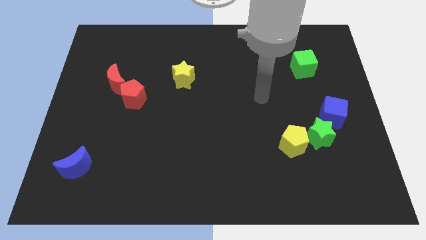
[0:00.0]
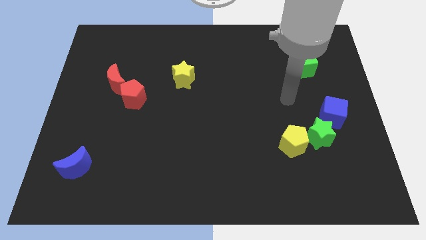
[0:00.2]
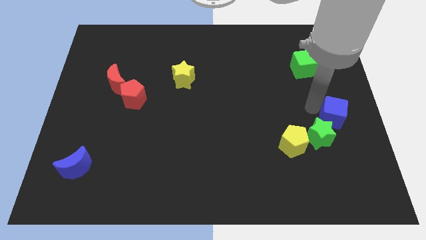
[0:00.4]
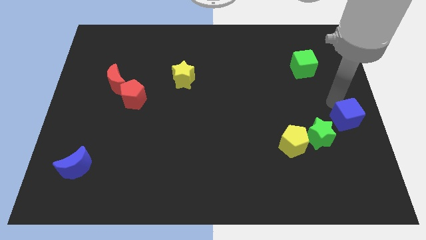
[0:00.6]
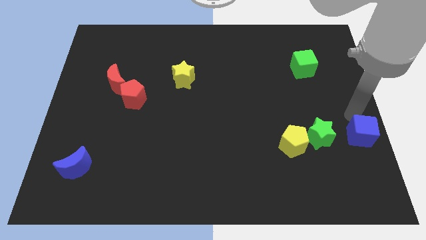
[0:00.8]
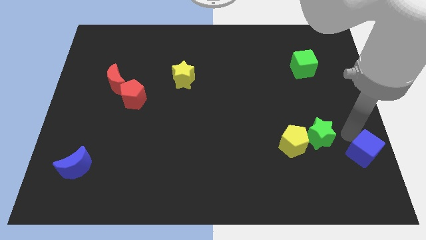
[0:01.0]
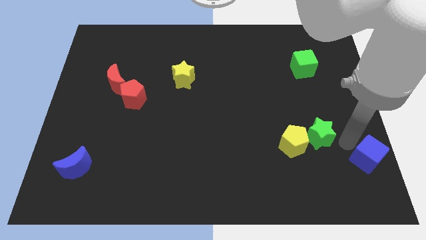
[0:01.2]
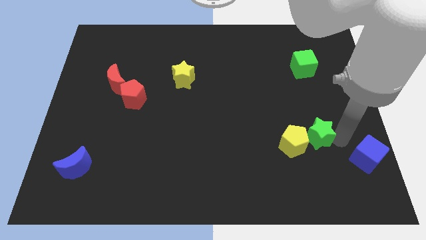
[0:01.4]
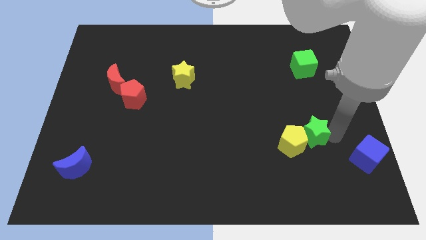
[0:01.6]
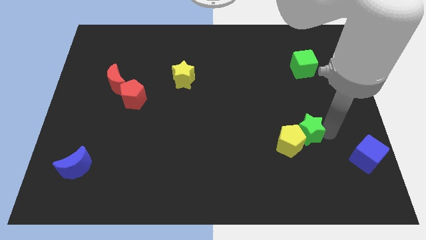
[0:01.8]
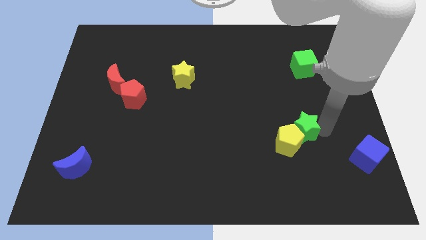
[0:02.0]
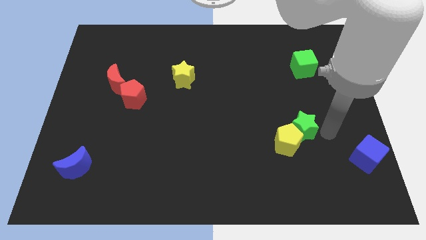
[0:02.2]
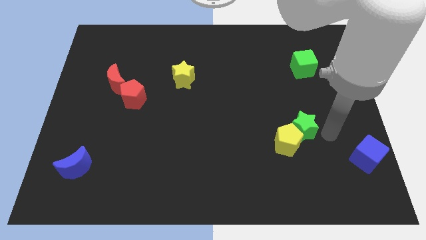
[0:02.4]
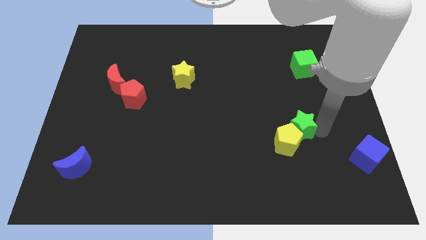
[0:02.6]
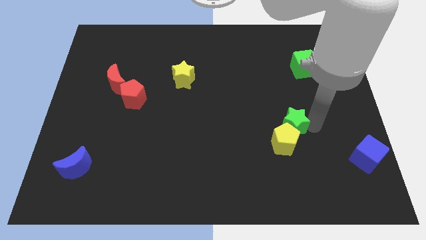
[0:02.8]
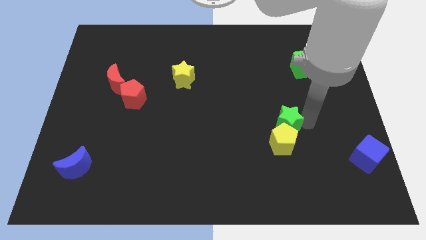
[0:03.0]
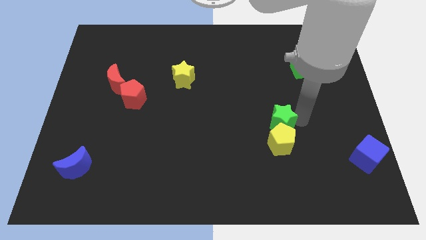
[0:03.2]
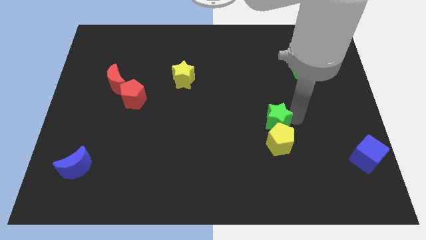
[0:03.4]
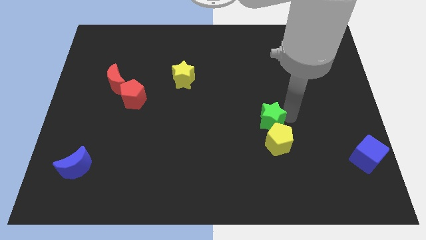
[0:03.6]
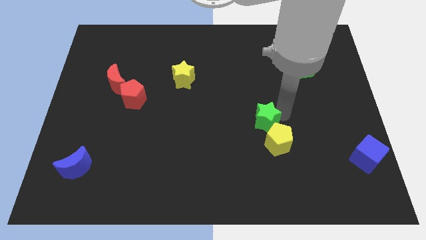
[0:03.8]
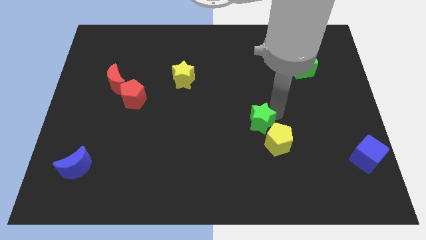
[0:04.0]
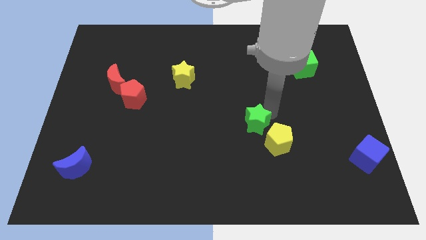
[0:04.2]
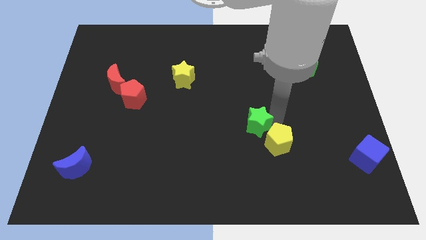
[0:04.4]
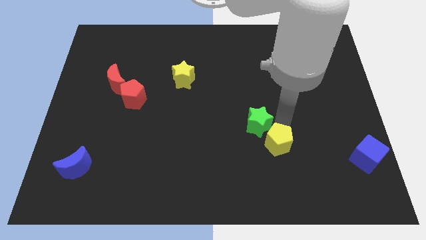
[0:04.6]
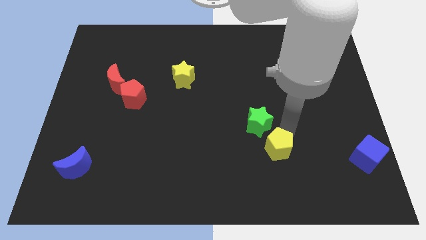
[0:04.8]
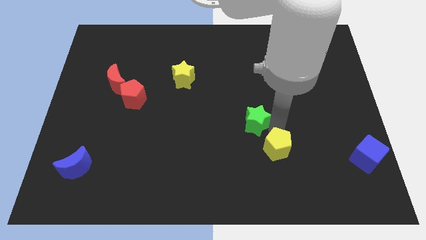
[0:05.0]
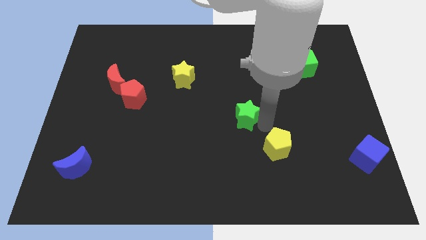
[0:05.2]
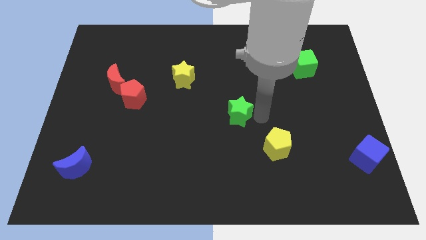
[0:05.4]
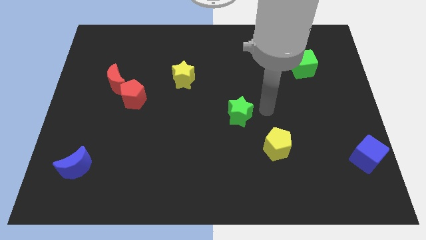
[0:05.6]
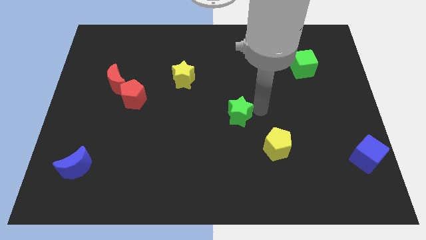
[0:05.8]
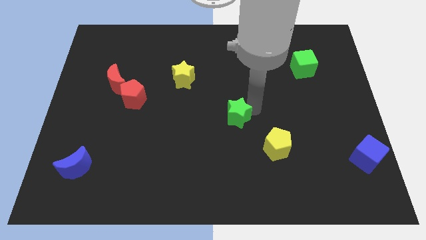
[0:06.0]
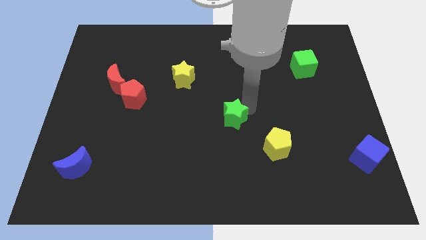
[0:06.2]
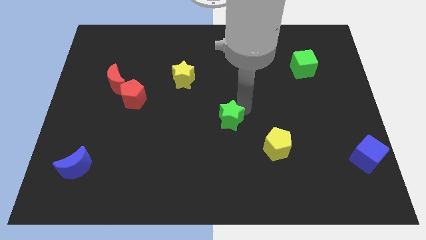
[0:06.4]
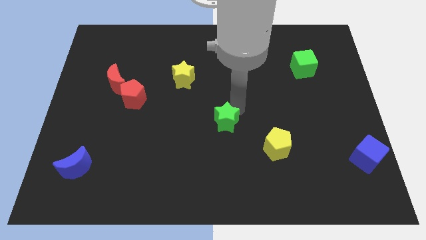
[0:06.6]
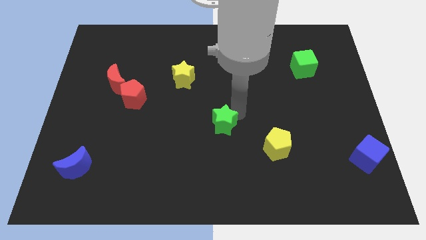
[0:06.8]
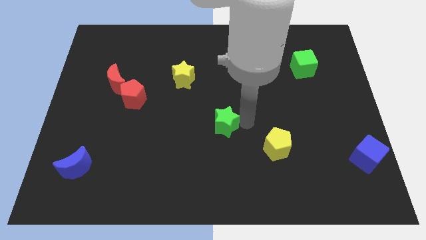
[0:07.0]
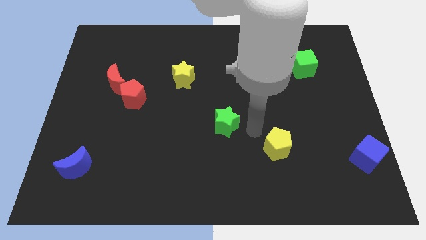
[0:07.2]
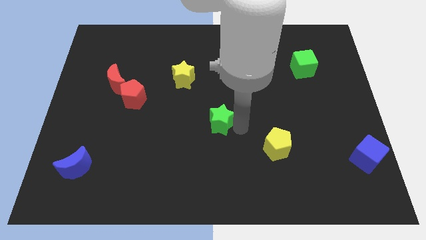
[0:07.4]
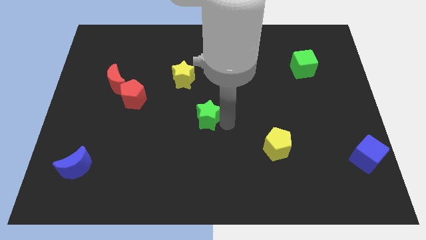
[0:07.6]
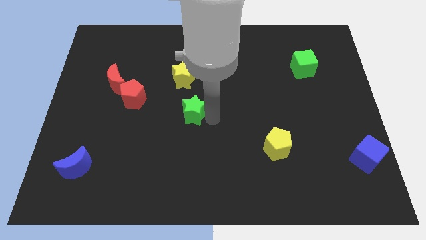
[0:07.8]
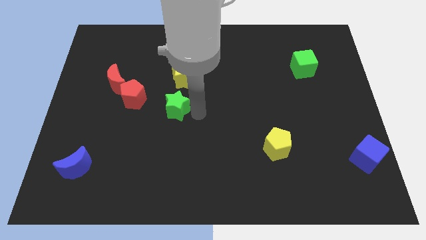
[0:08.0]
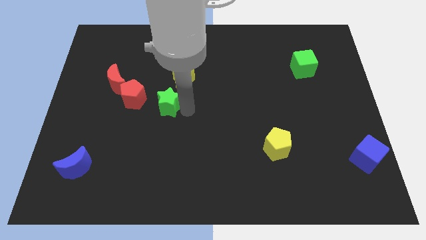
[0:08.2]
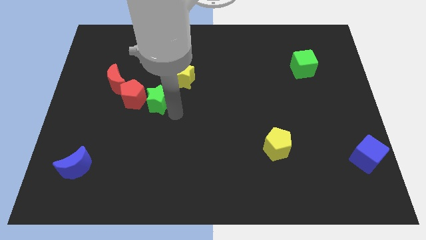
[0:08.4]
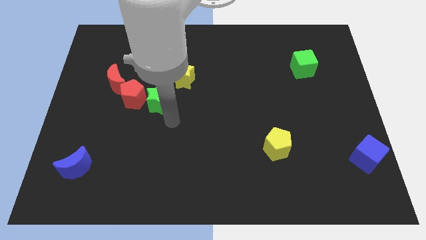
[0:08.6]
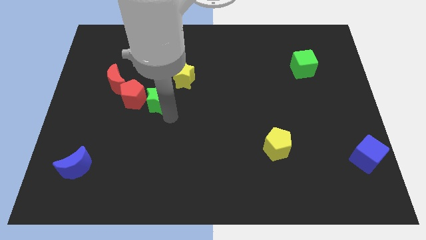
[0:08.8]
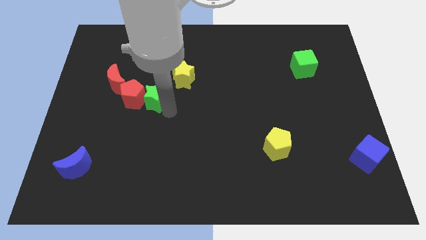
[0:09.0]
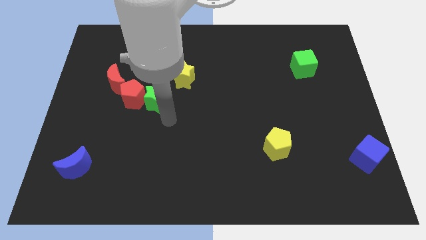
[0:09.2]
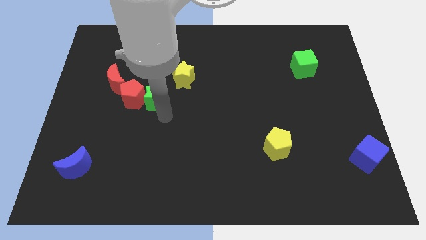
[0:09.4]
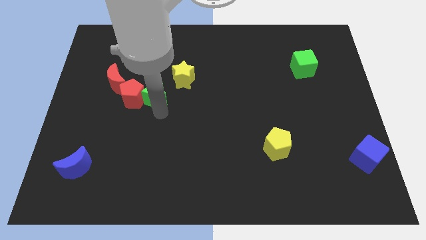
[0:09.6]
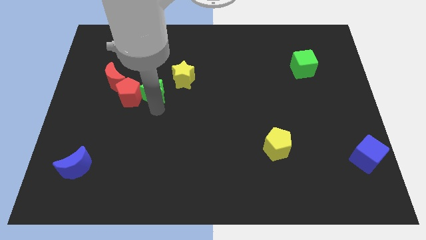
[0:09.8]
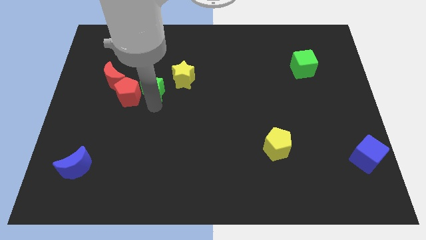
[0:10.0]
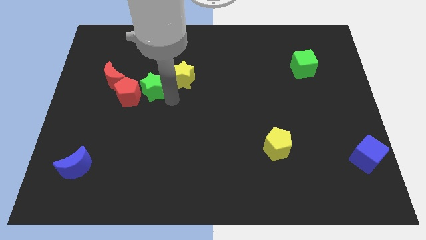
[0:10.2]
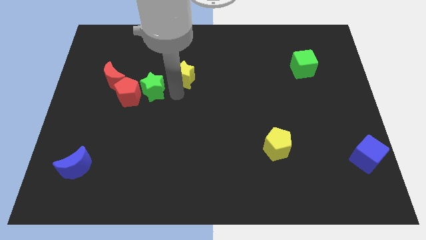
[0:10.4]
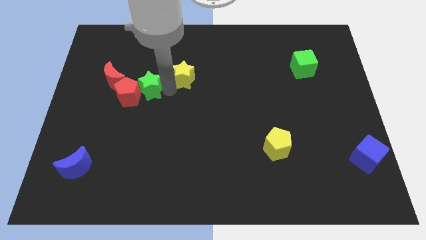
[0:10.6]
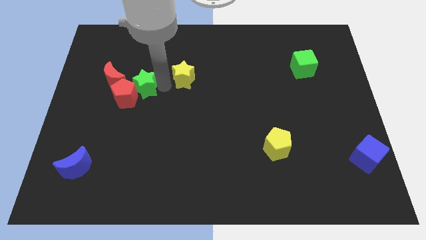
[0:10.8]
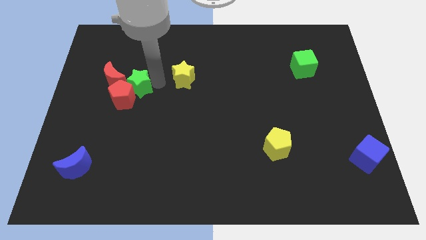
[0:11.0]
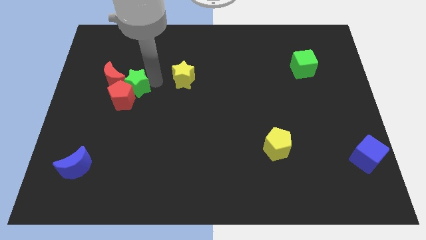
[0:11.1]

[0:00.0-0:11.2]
put the green star close to the red moon

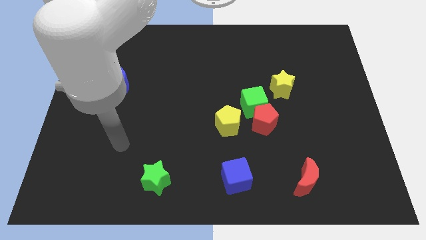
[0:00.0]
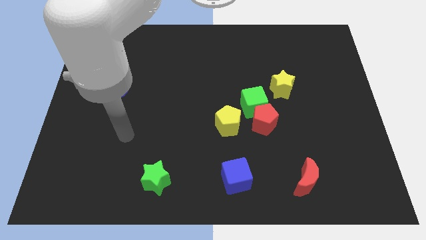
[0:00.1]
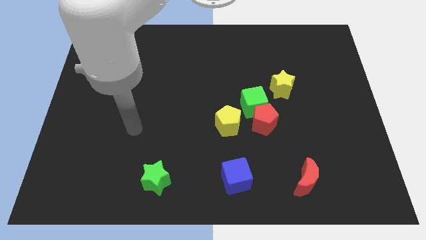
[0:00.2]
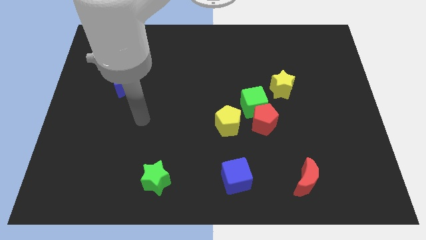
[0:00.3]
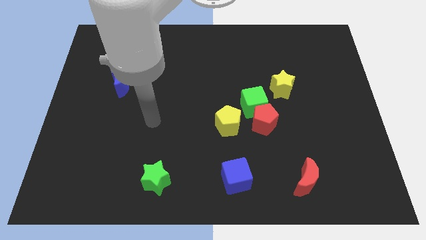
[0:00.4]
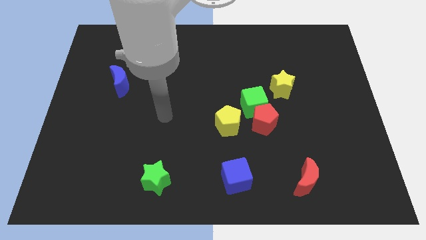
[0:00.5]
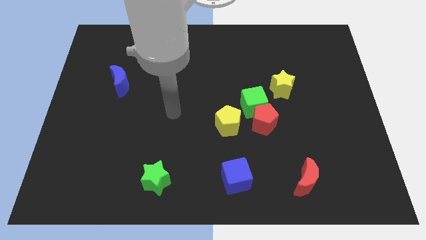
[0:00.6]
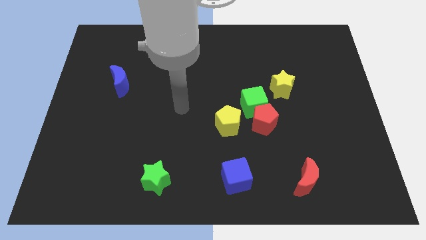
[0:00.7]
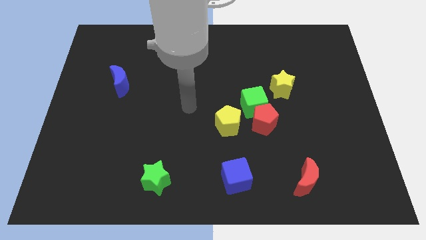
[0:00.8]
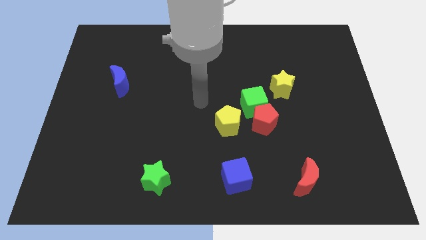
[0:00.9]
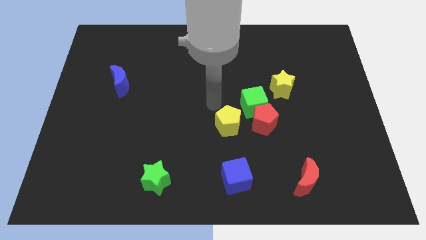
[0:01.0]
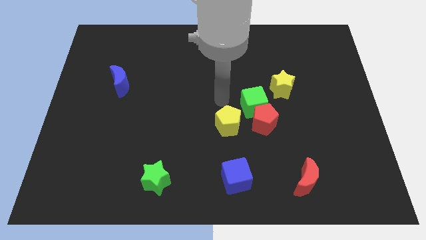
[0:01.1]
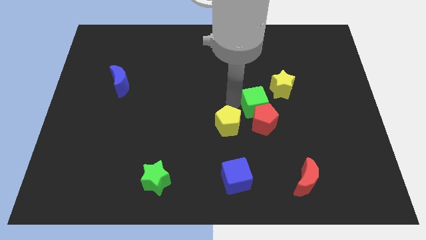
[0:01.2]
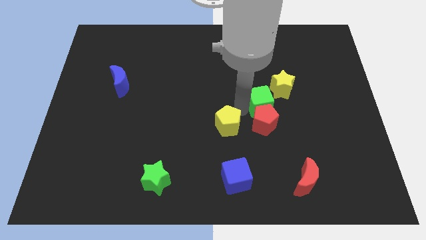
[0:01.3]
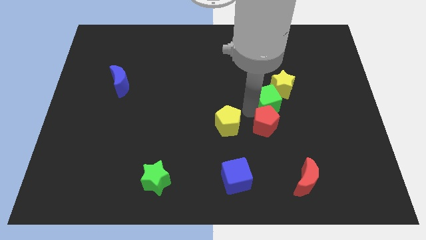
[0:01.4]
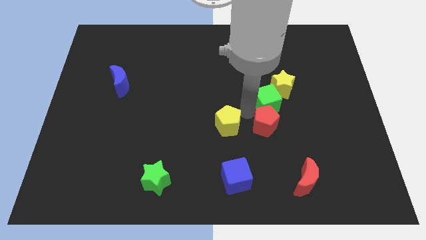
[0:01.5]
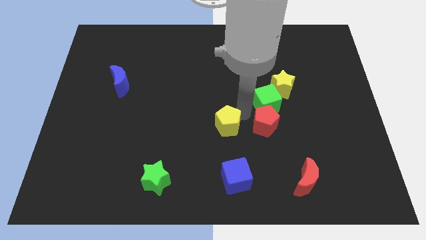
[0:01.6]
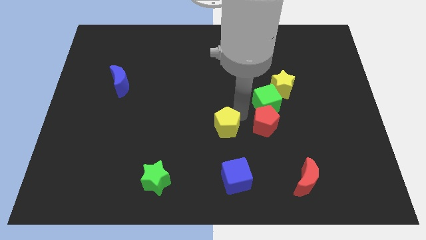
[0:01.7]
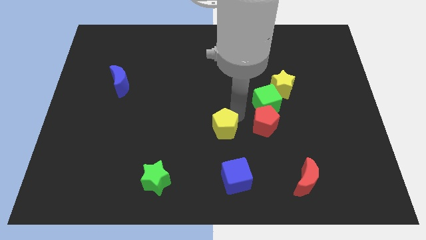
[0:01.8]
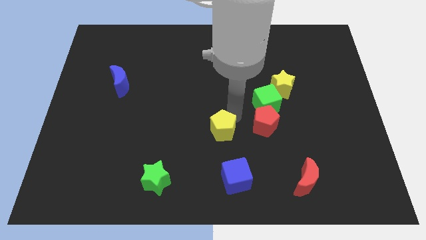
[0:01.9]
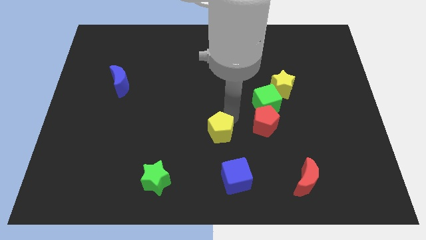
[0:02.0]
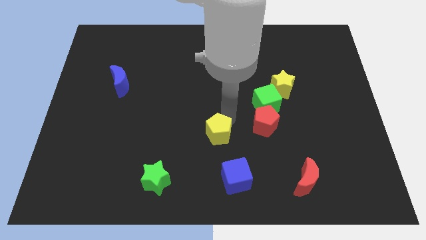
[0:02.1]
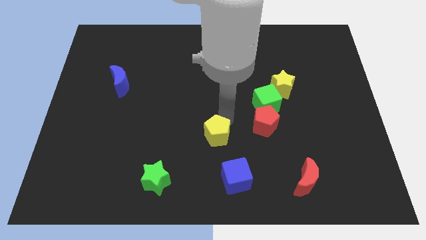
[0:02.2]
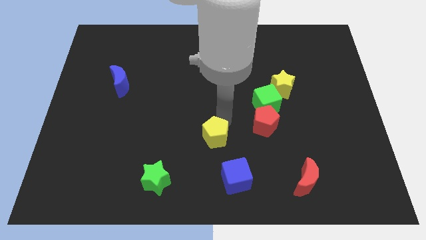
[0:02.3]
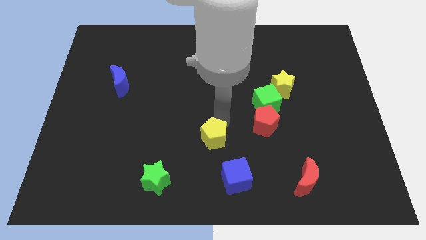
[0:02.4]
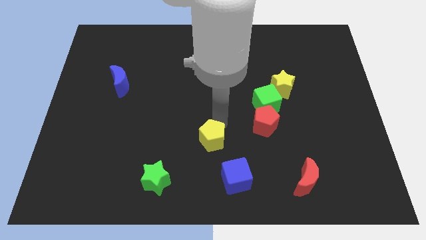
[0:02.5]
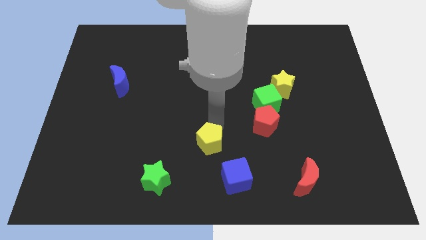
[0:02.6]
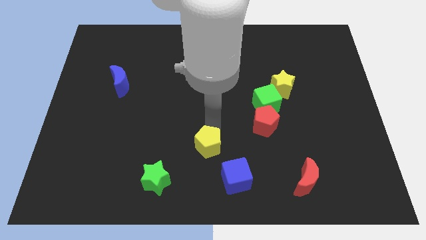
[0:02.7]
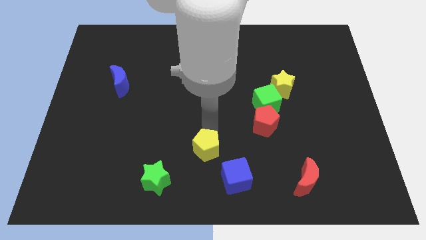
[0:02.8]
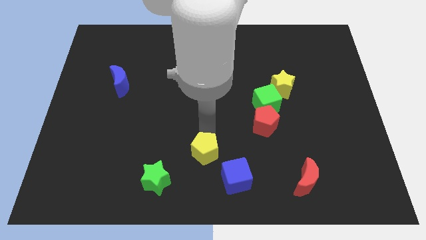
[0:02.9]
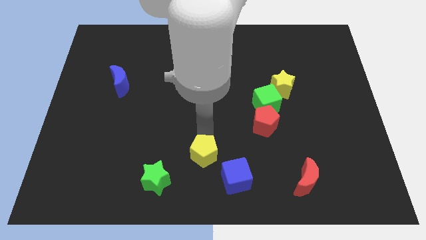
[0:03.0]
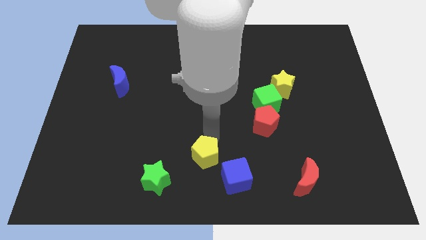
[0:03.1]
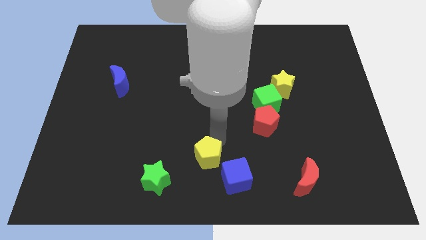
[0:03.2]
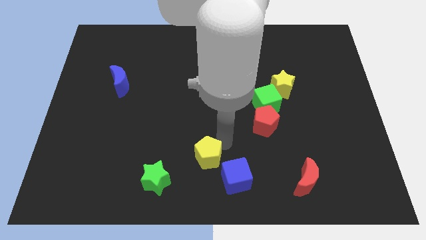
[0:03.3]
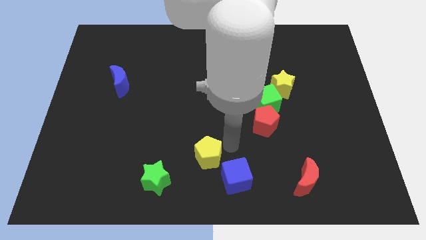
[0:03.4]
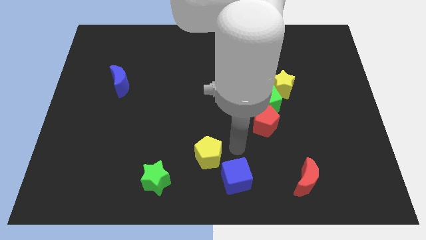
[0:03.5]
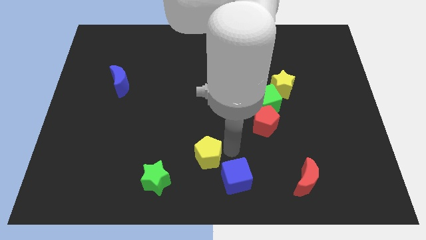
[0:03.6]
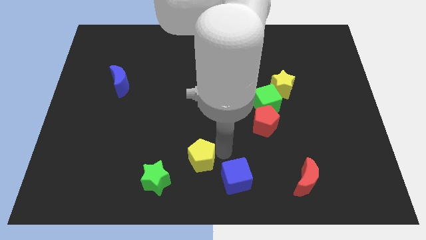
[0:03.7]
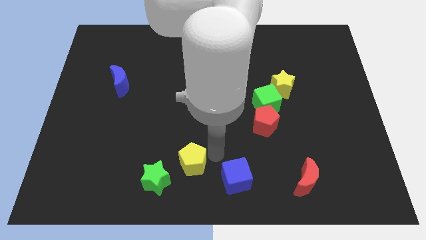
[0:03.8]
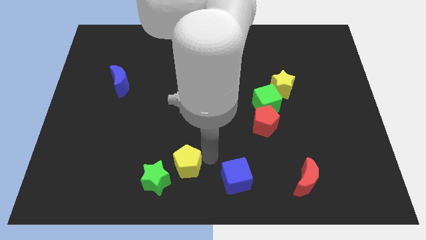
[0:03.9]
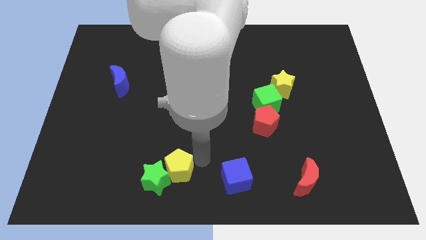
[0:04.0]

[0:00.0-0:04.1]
push the yellow pentagon next to the green star
